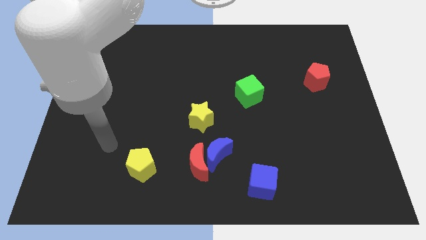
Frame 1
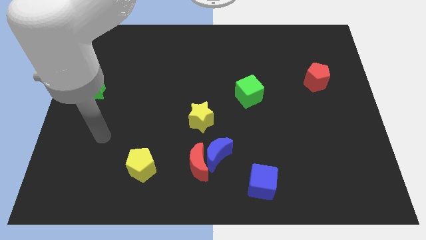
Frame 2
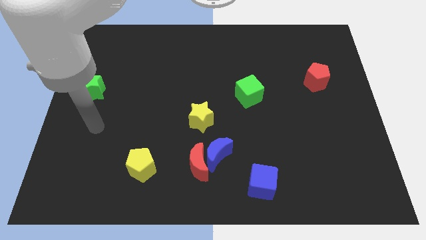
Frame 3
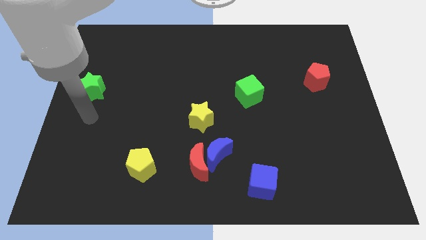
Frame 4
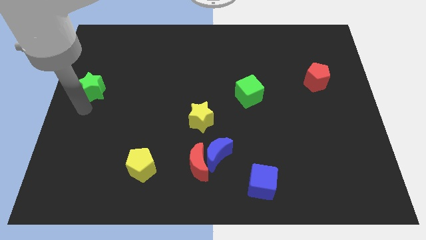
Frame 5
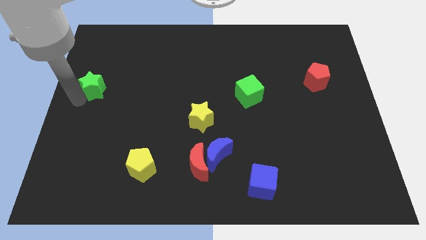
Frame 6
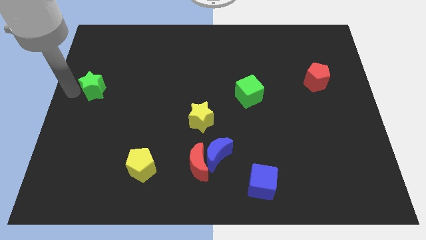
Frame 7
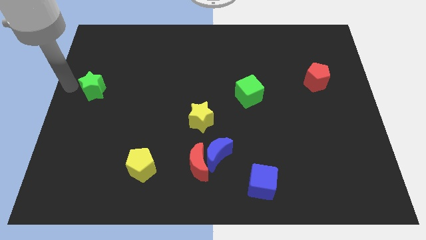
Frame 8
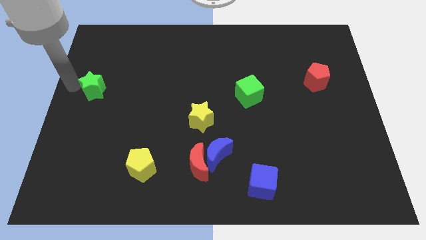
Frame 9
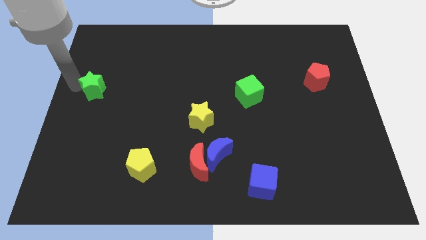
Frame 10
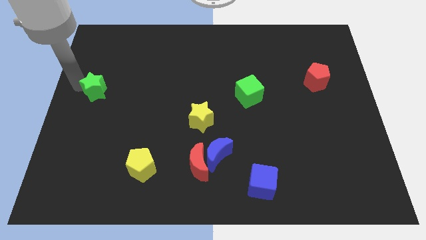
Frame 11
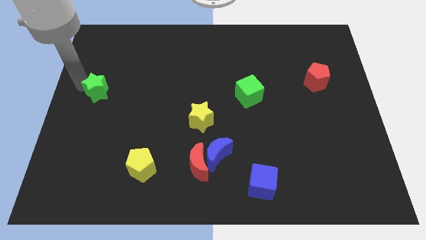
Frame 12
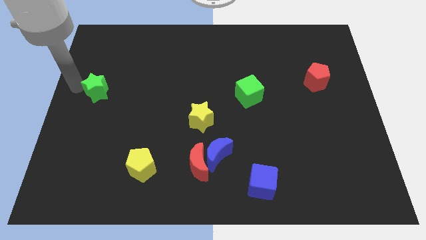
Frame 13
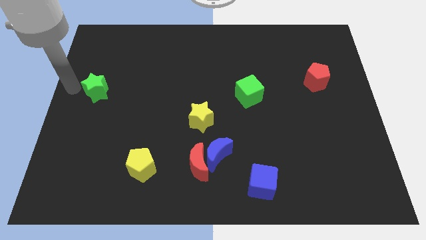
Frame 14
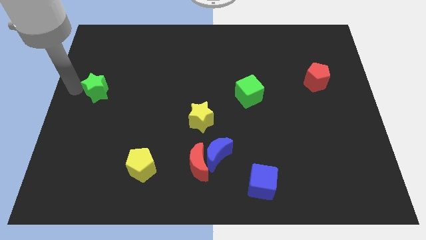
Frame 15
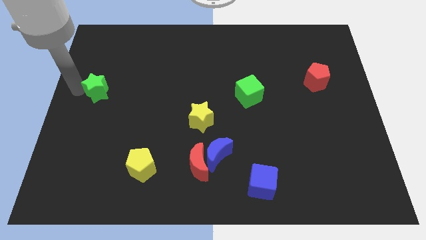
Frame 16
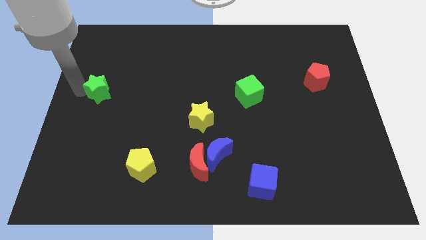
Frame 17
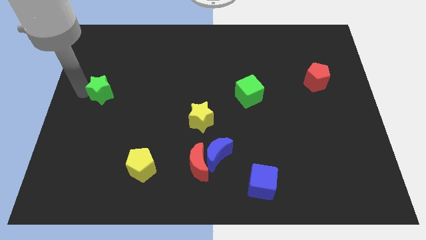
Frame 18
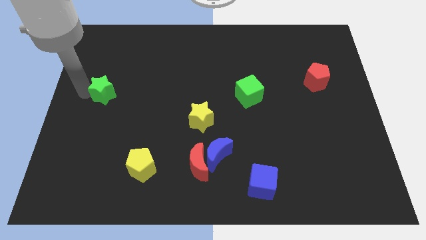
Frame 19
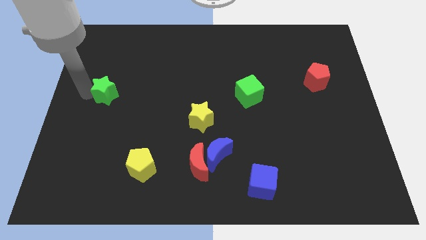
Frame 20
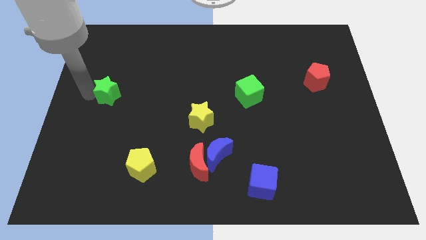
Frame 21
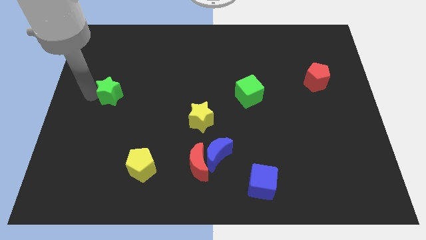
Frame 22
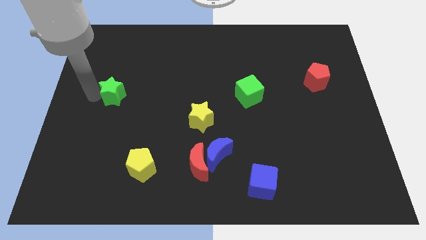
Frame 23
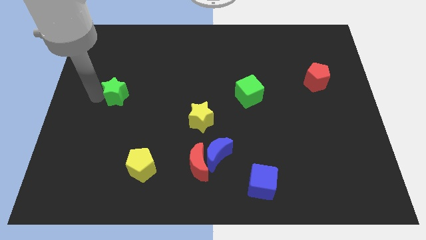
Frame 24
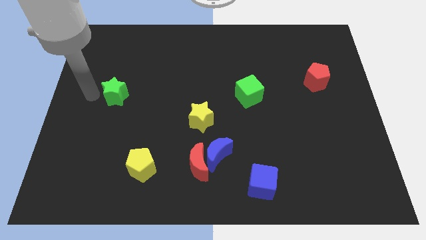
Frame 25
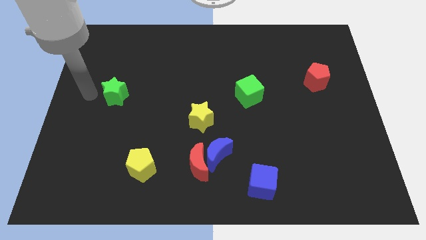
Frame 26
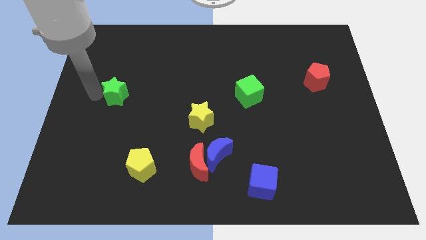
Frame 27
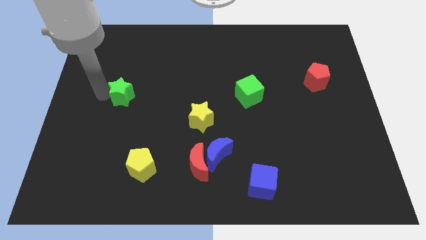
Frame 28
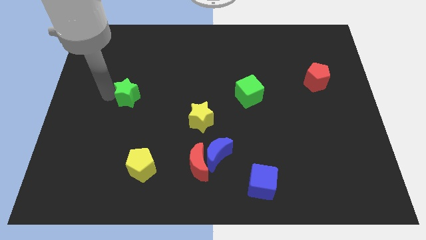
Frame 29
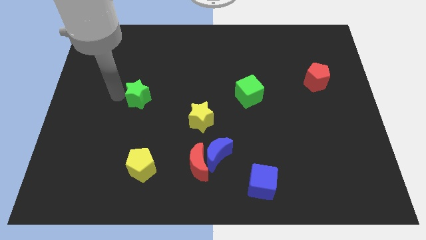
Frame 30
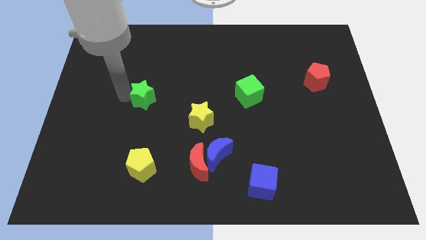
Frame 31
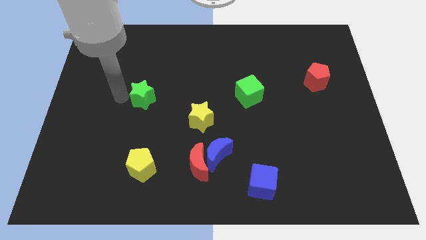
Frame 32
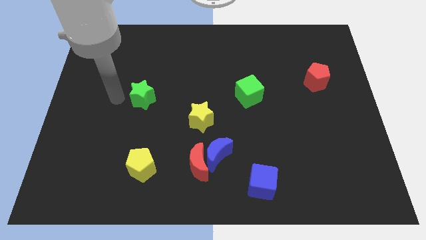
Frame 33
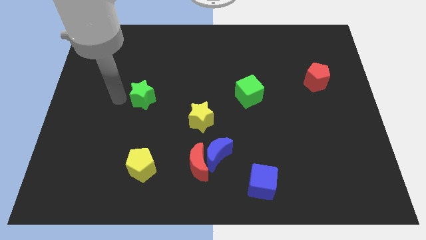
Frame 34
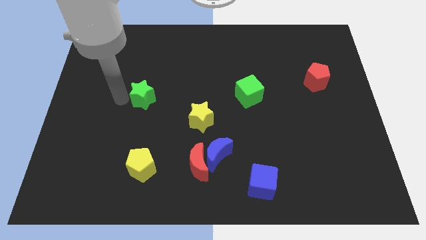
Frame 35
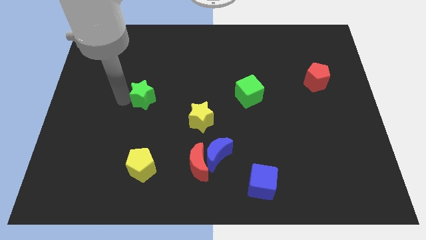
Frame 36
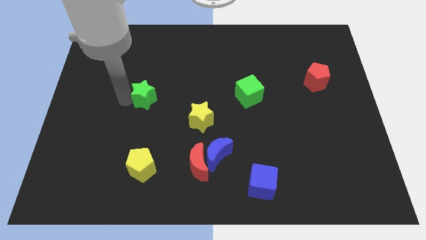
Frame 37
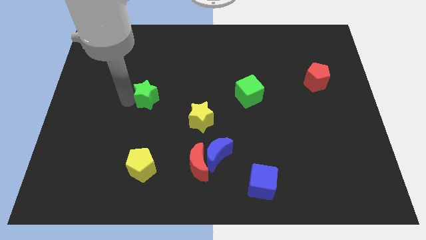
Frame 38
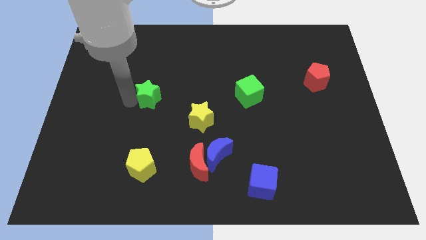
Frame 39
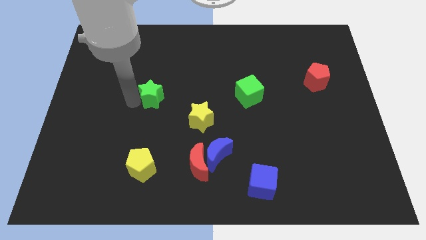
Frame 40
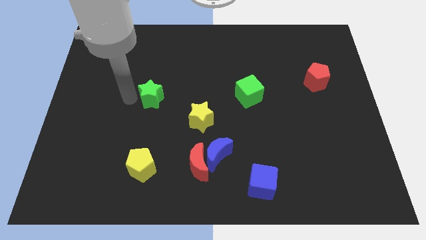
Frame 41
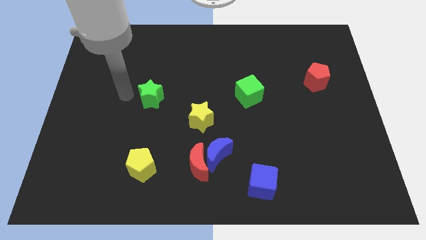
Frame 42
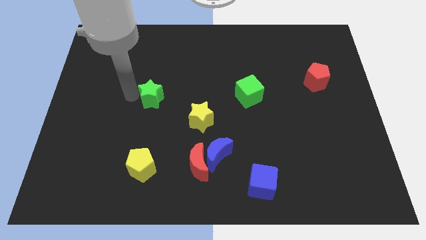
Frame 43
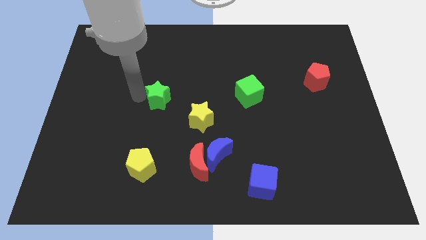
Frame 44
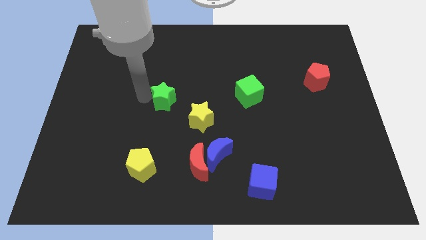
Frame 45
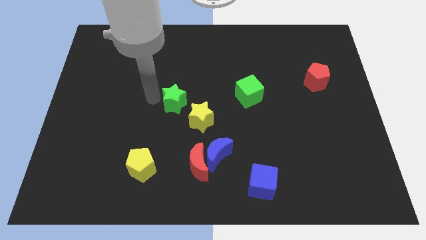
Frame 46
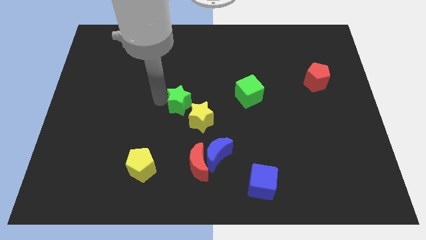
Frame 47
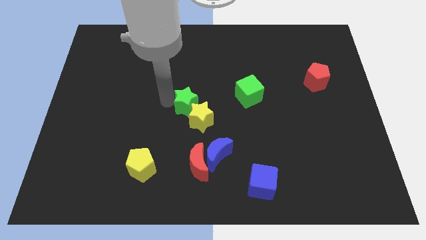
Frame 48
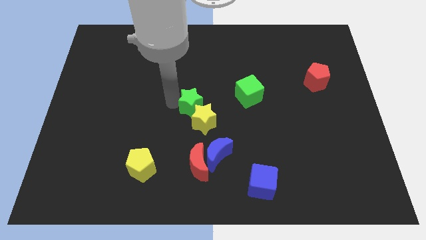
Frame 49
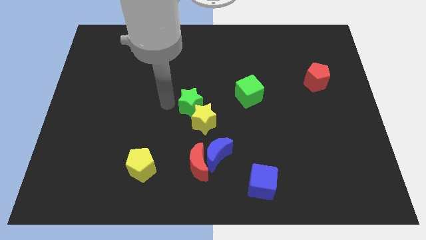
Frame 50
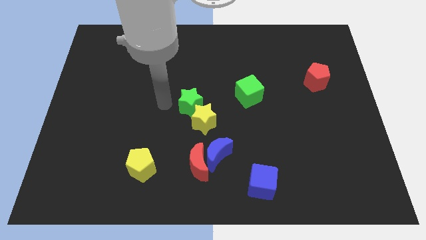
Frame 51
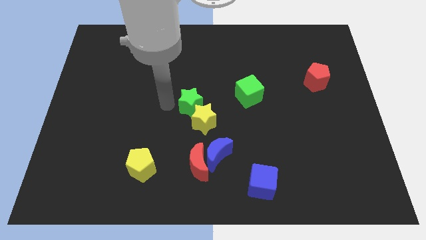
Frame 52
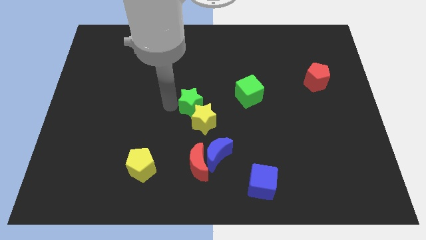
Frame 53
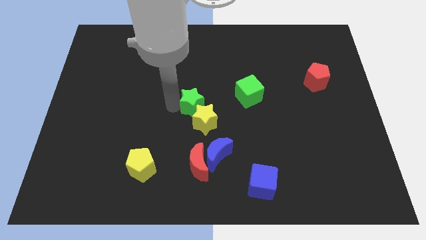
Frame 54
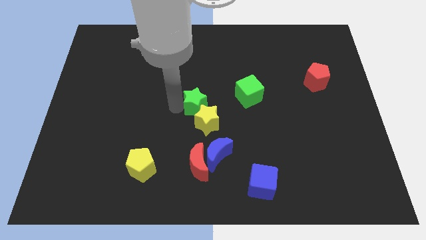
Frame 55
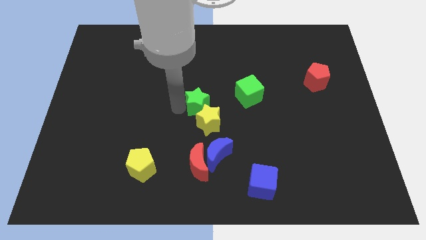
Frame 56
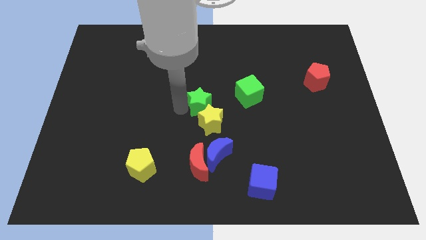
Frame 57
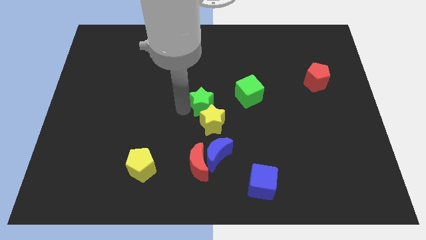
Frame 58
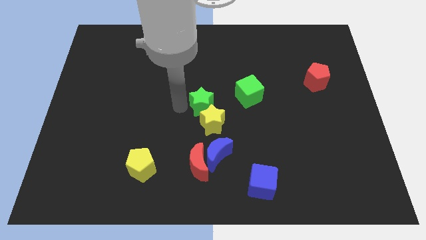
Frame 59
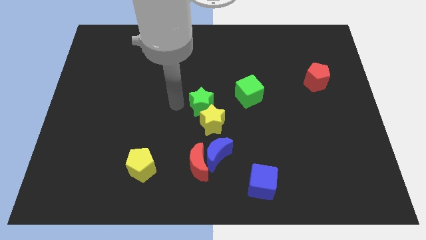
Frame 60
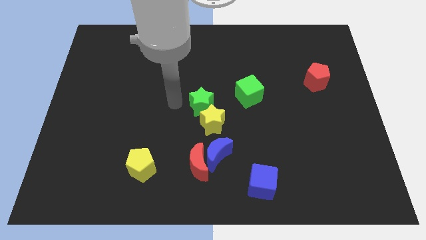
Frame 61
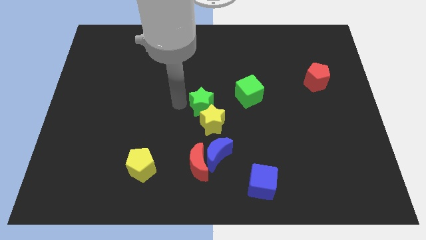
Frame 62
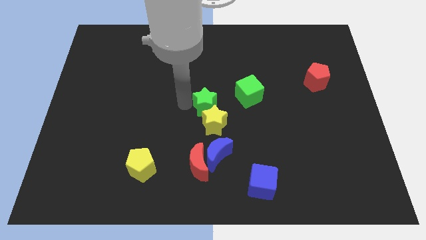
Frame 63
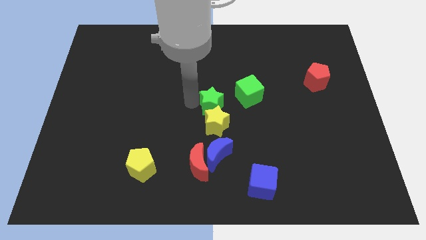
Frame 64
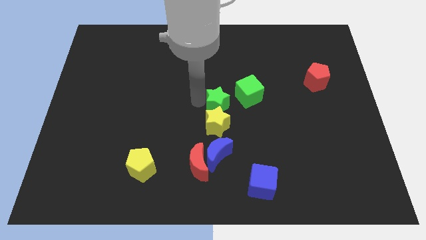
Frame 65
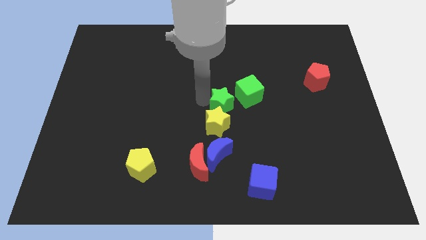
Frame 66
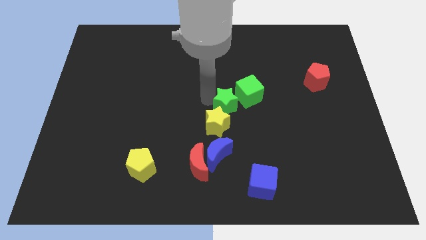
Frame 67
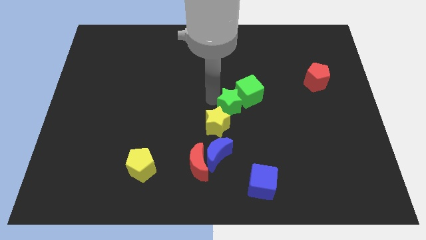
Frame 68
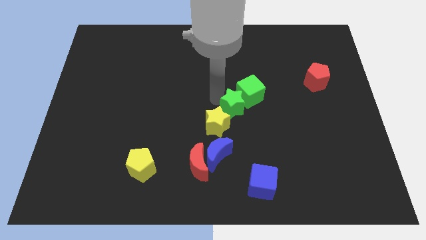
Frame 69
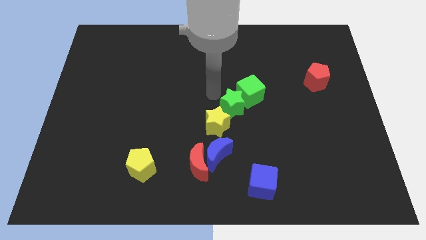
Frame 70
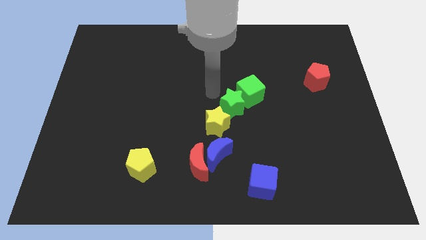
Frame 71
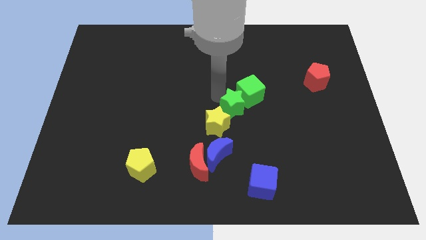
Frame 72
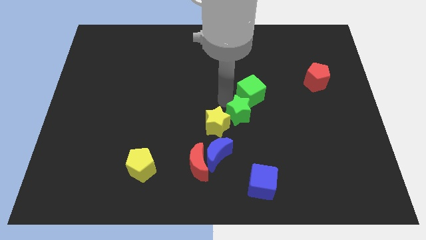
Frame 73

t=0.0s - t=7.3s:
push the green star to the right side of the yellow star
